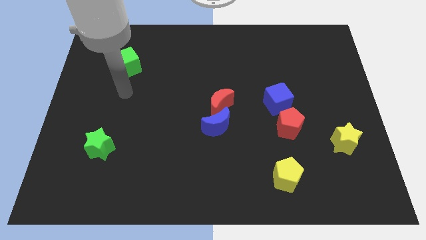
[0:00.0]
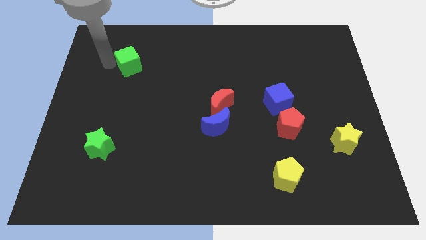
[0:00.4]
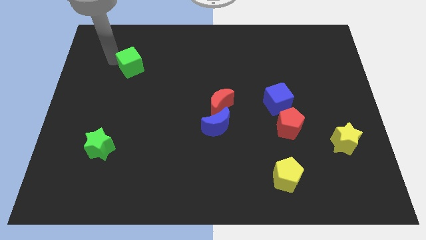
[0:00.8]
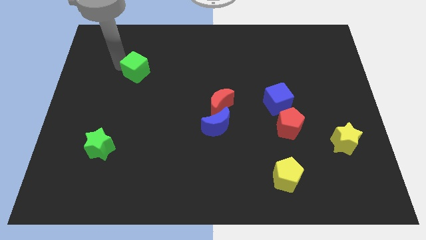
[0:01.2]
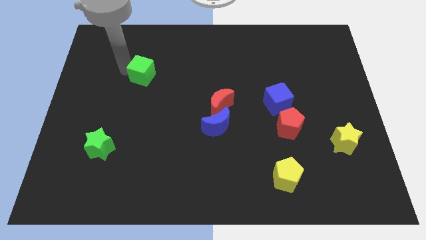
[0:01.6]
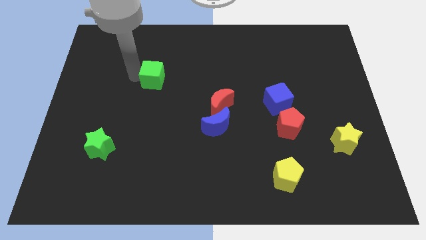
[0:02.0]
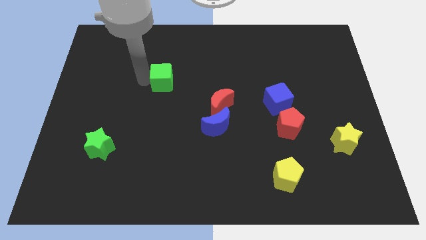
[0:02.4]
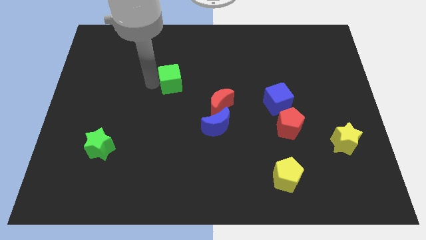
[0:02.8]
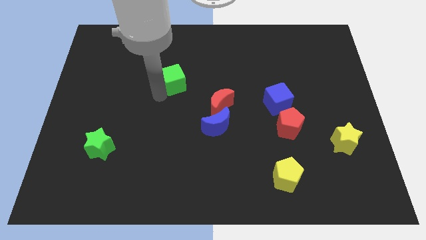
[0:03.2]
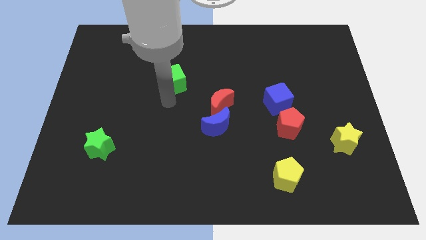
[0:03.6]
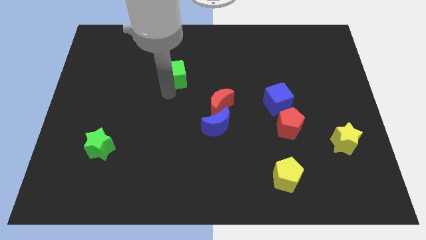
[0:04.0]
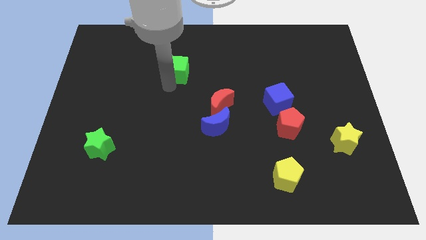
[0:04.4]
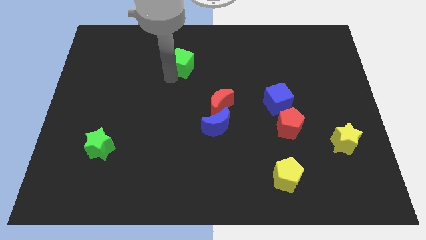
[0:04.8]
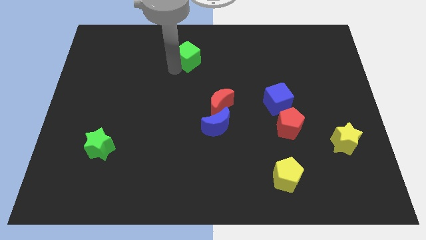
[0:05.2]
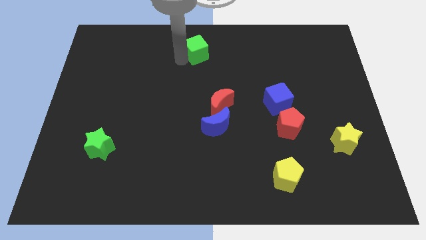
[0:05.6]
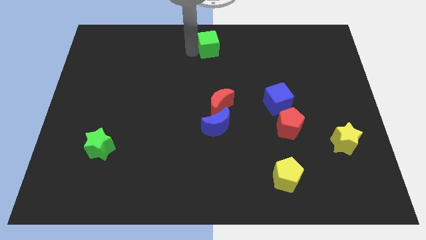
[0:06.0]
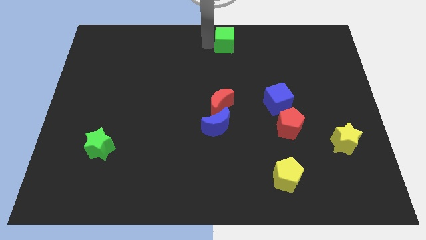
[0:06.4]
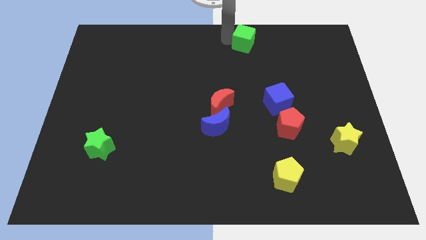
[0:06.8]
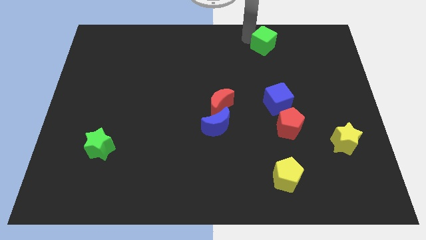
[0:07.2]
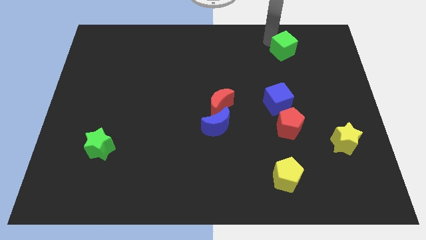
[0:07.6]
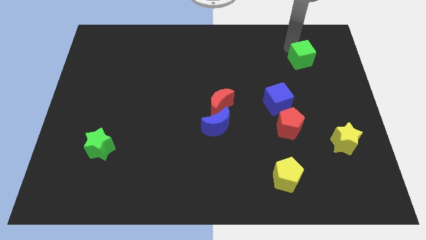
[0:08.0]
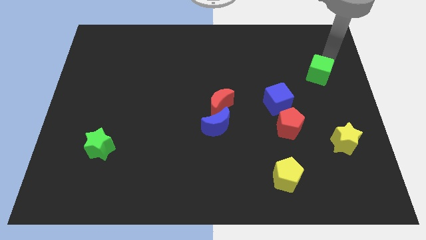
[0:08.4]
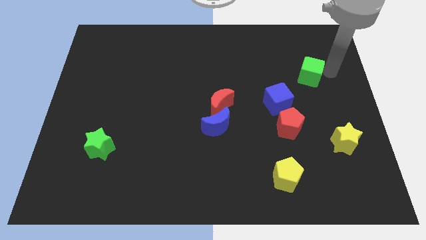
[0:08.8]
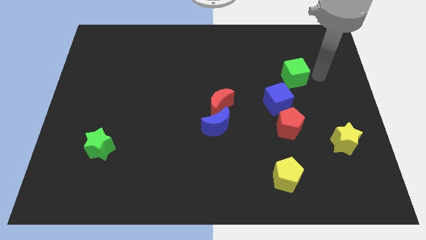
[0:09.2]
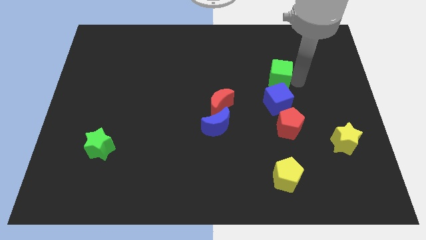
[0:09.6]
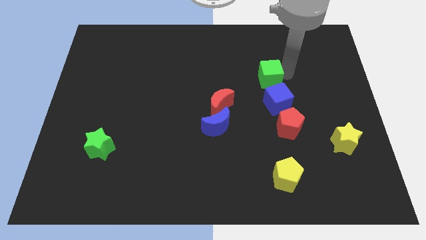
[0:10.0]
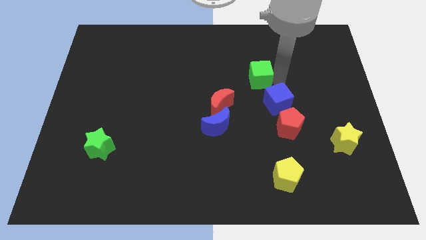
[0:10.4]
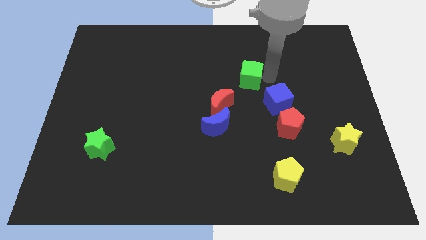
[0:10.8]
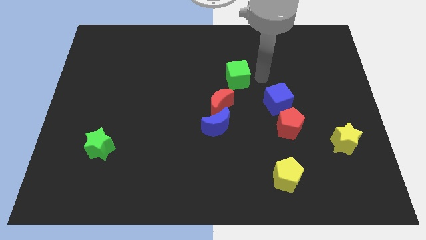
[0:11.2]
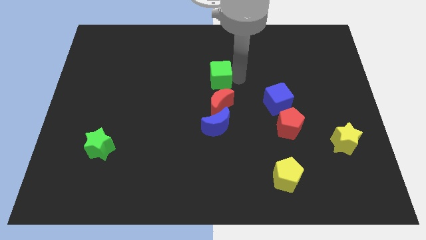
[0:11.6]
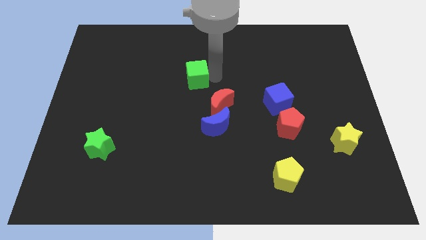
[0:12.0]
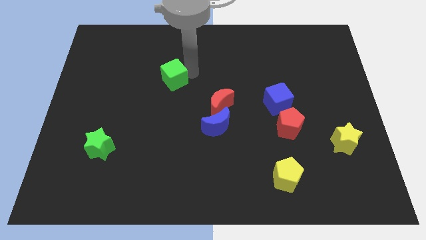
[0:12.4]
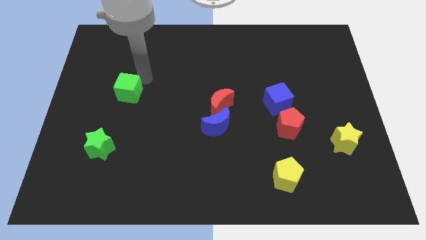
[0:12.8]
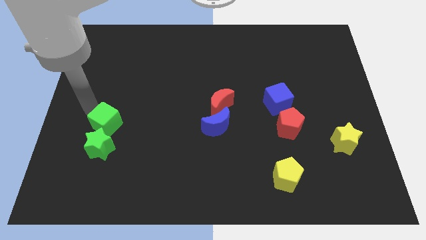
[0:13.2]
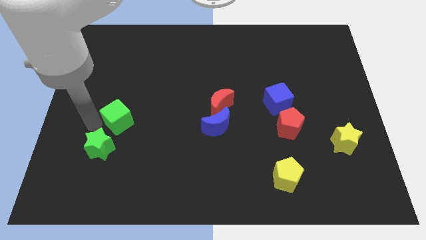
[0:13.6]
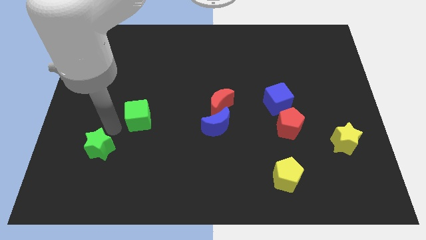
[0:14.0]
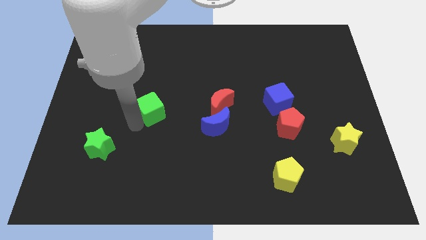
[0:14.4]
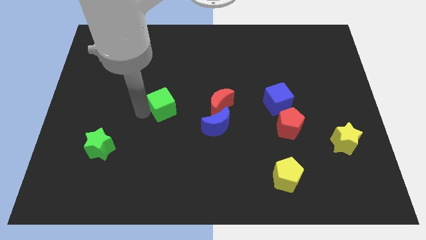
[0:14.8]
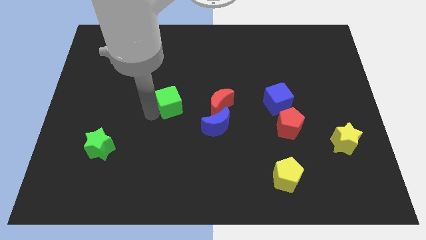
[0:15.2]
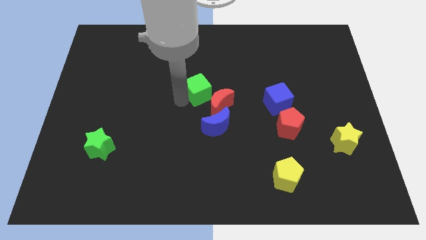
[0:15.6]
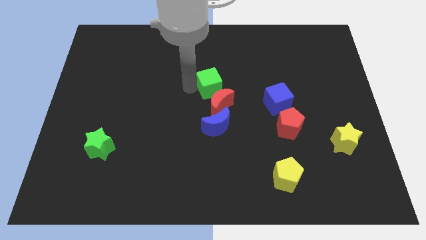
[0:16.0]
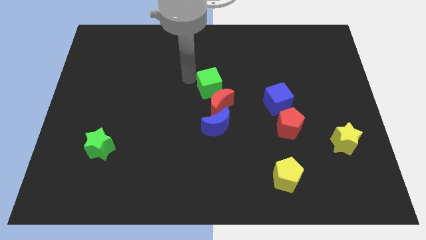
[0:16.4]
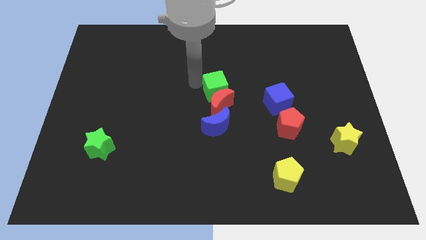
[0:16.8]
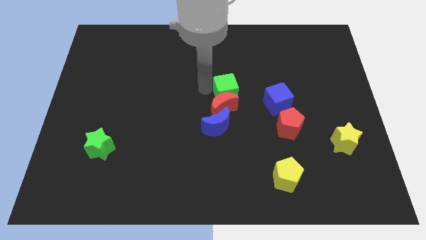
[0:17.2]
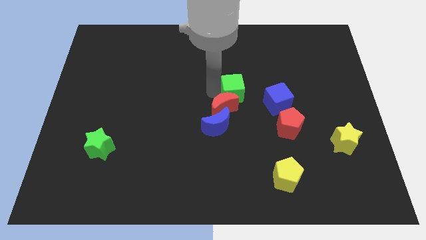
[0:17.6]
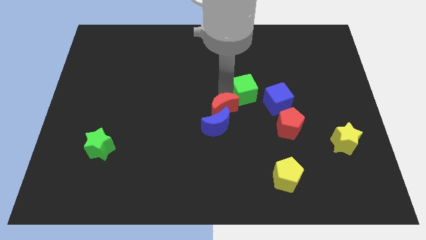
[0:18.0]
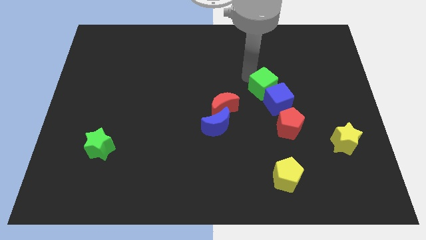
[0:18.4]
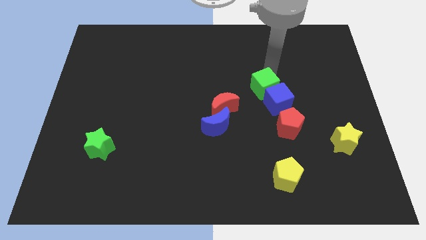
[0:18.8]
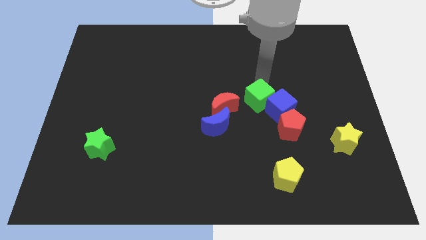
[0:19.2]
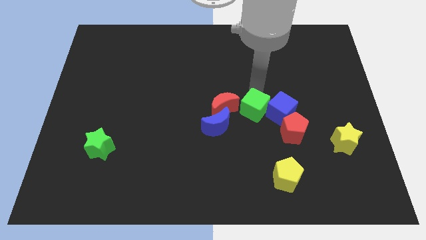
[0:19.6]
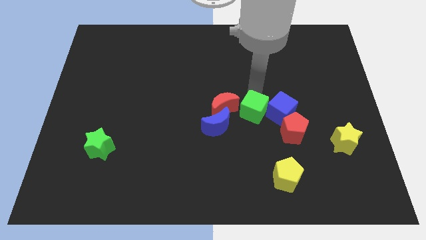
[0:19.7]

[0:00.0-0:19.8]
move the green cube diagonally down and to the right of the red moon

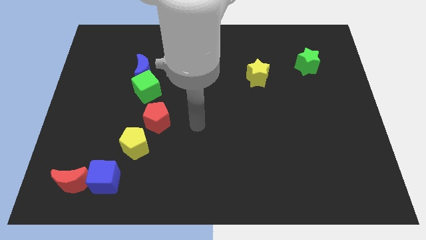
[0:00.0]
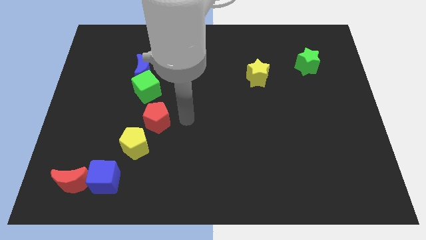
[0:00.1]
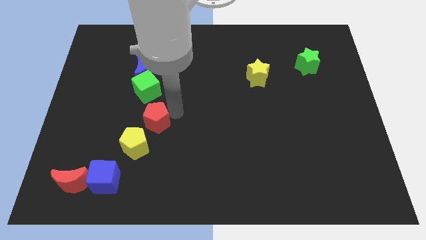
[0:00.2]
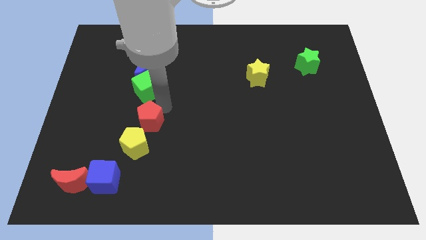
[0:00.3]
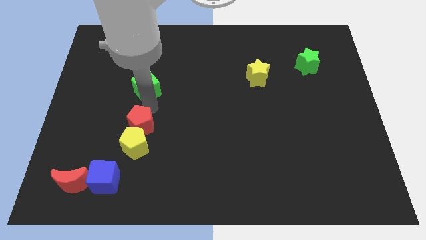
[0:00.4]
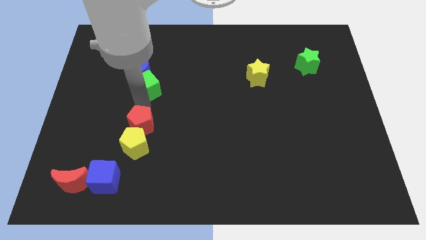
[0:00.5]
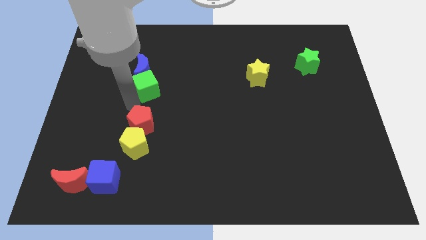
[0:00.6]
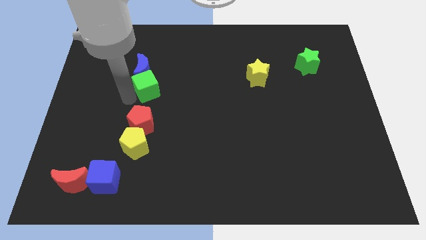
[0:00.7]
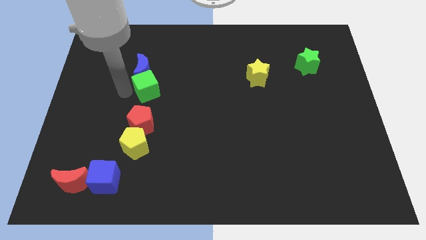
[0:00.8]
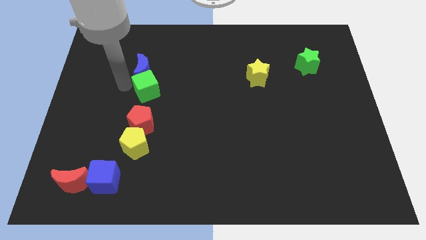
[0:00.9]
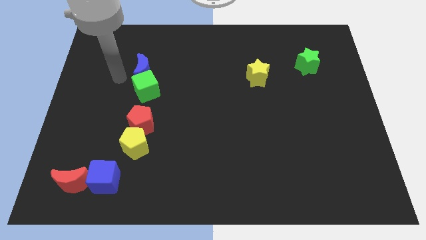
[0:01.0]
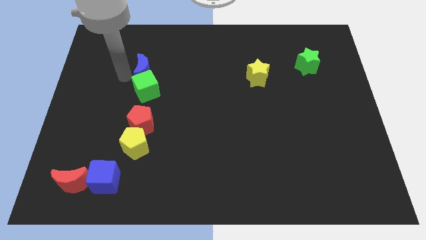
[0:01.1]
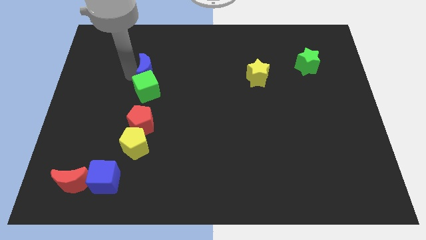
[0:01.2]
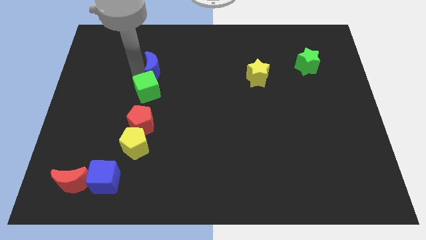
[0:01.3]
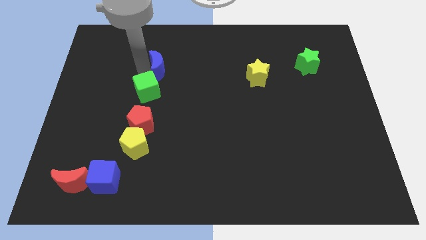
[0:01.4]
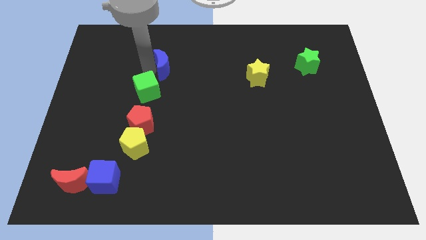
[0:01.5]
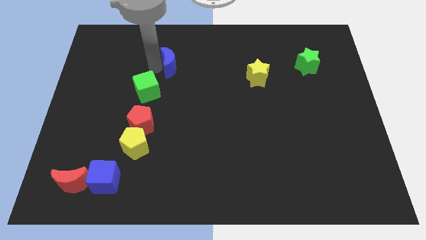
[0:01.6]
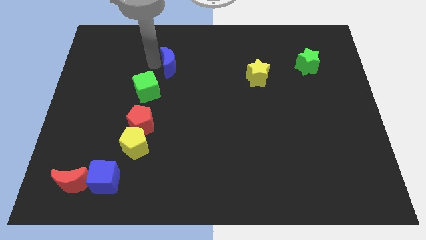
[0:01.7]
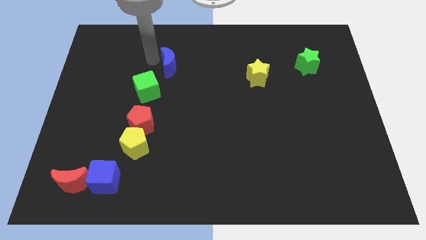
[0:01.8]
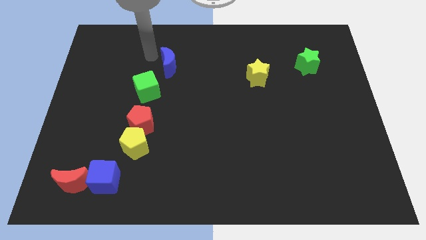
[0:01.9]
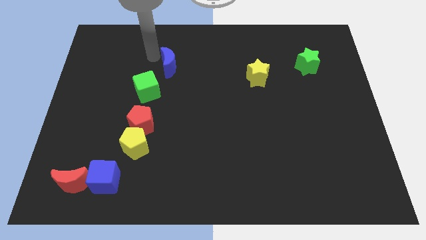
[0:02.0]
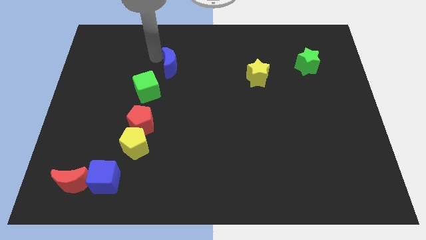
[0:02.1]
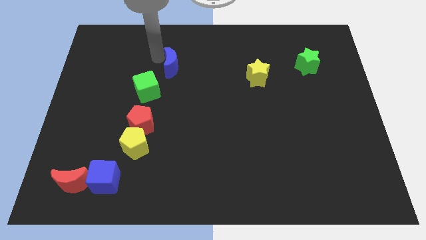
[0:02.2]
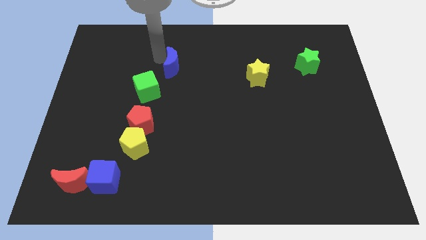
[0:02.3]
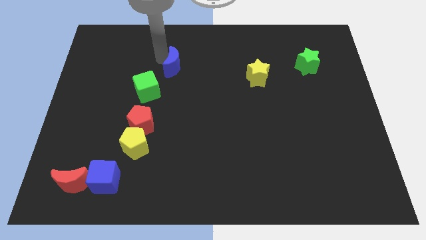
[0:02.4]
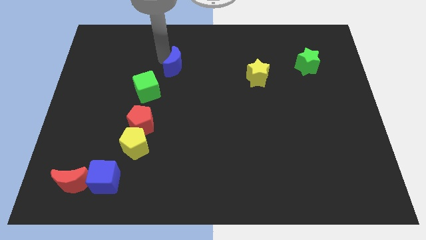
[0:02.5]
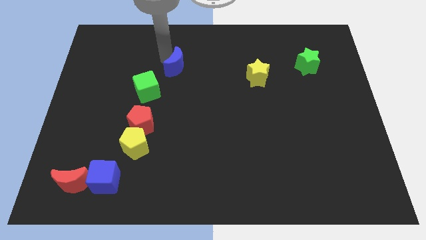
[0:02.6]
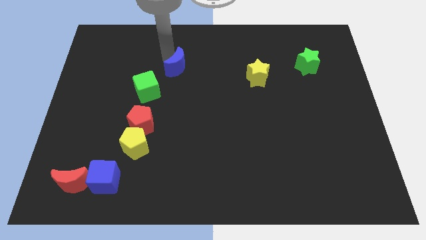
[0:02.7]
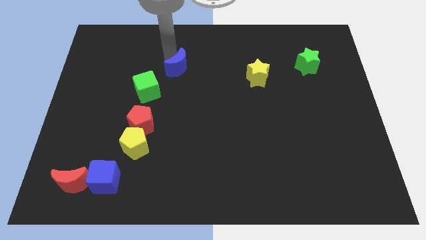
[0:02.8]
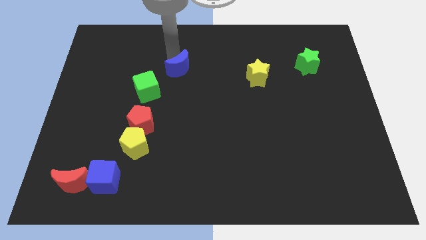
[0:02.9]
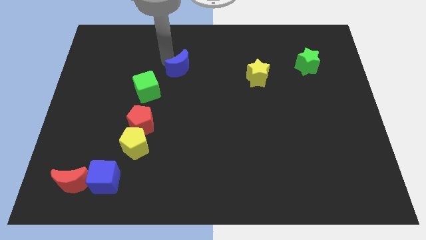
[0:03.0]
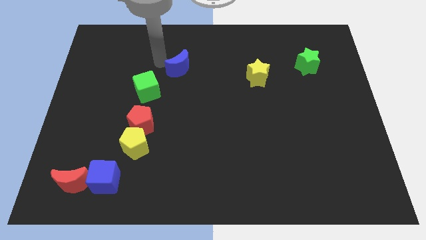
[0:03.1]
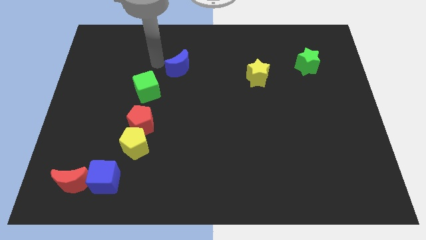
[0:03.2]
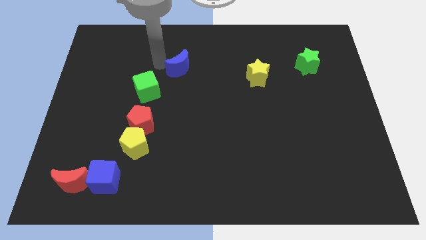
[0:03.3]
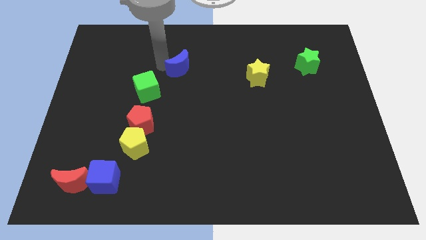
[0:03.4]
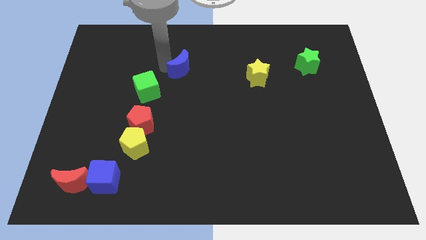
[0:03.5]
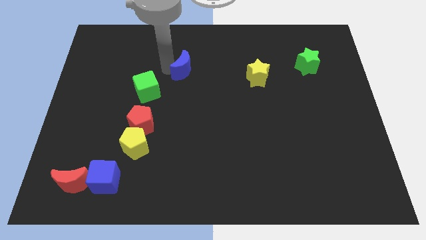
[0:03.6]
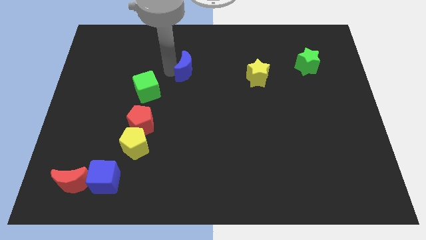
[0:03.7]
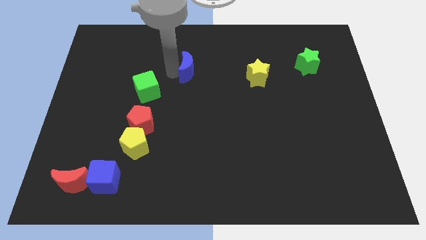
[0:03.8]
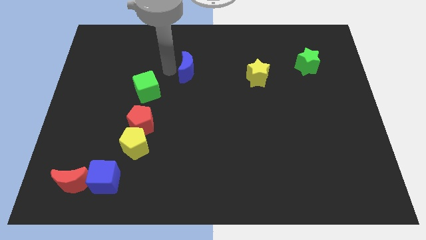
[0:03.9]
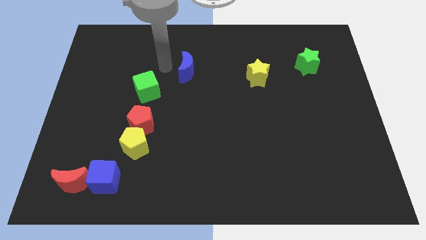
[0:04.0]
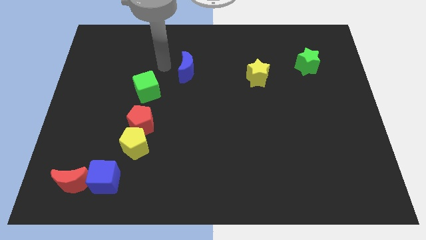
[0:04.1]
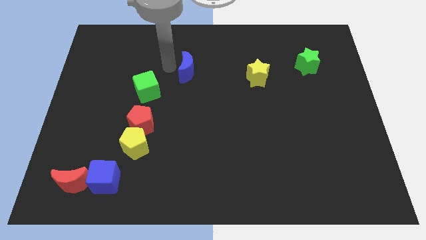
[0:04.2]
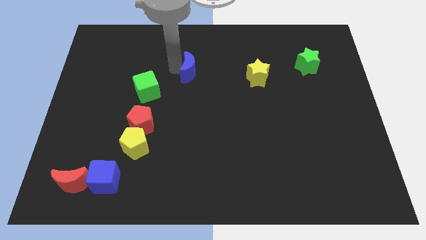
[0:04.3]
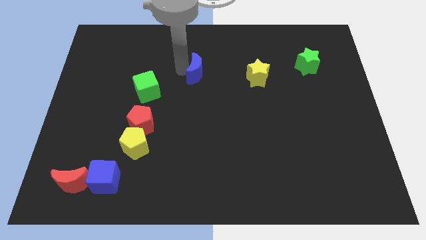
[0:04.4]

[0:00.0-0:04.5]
slide the blue moon left of the yellow star
